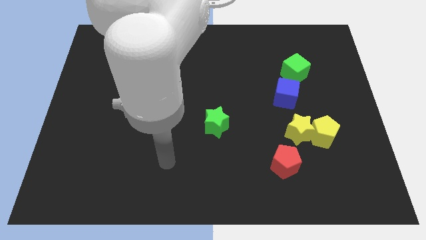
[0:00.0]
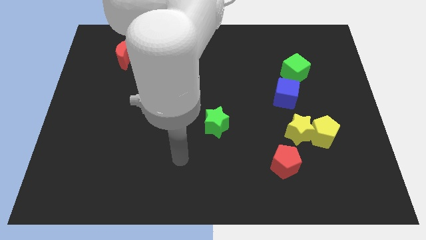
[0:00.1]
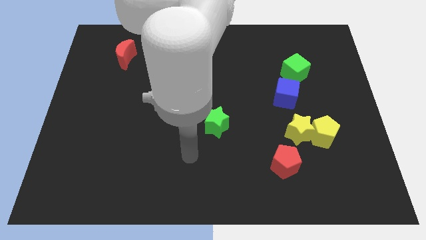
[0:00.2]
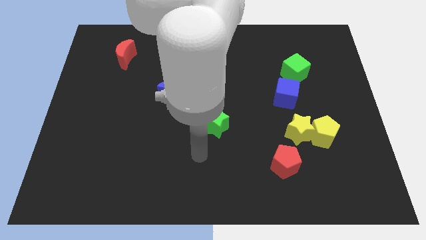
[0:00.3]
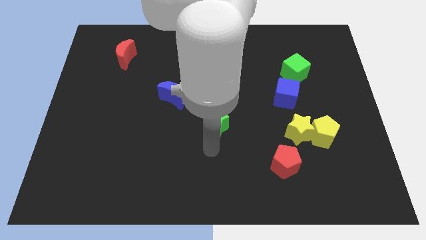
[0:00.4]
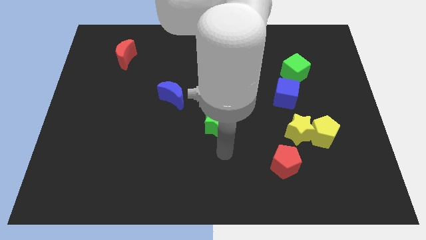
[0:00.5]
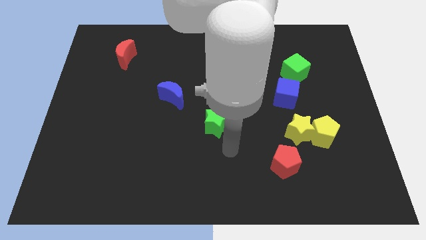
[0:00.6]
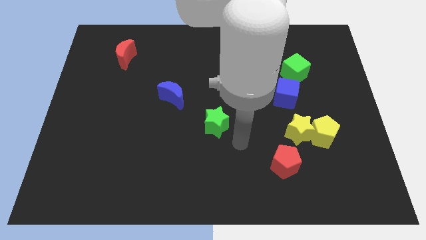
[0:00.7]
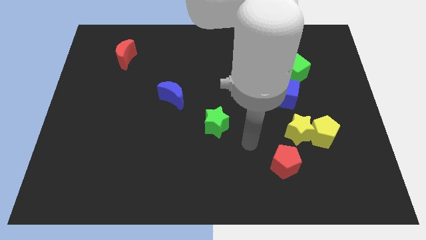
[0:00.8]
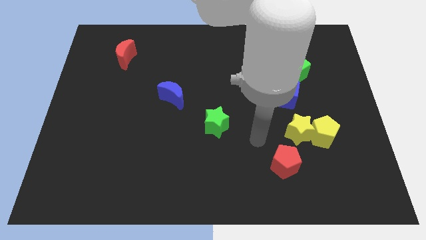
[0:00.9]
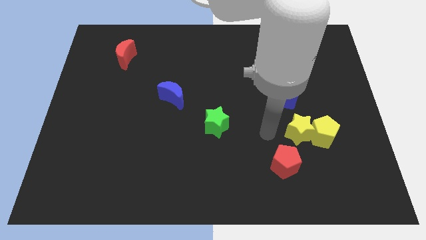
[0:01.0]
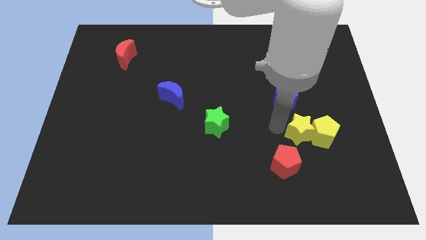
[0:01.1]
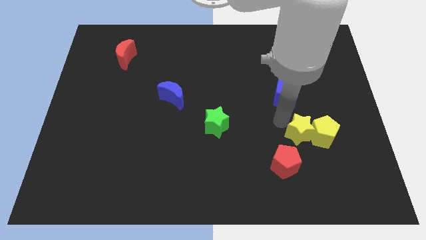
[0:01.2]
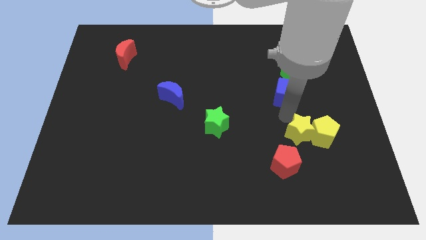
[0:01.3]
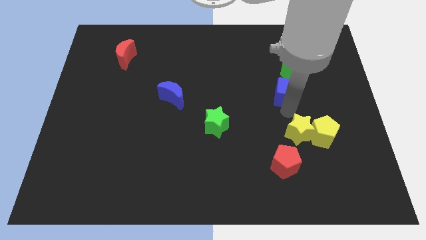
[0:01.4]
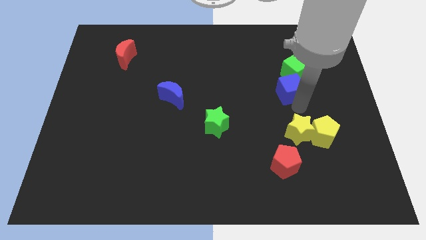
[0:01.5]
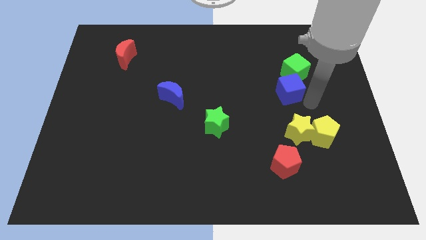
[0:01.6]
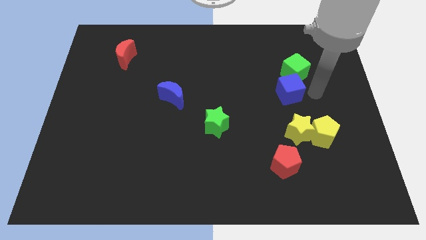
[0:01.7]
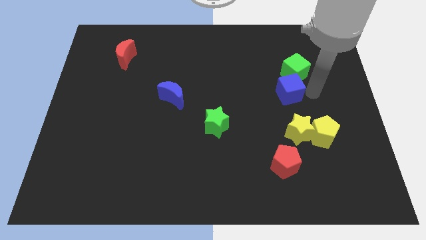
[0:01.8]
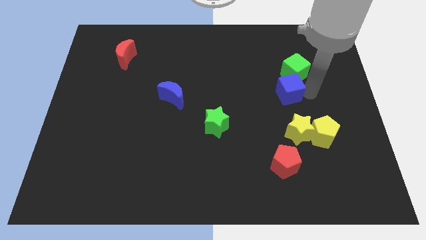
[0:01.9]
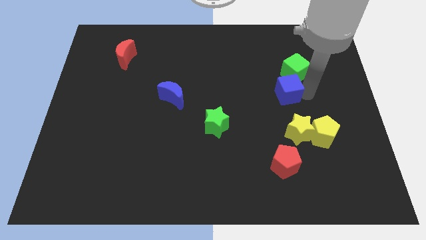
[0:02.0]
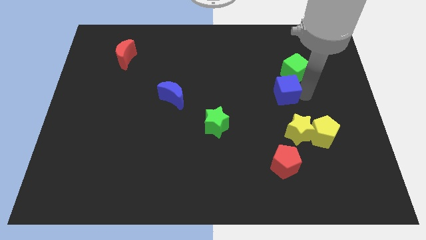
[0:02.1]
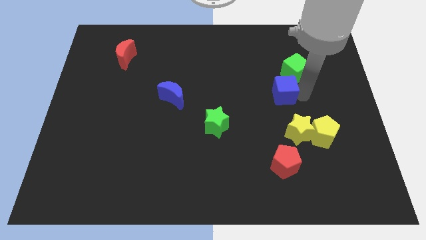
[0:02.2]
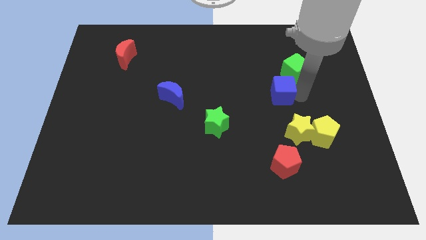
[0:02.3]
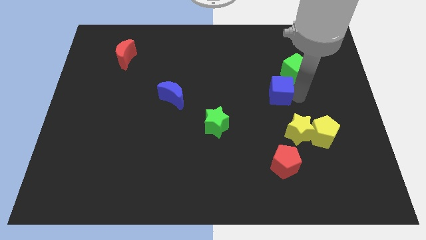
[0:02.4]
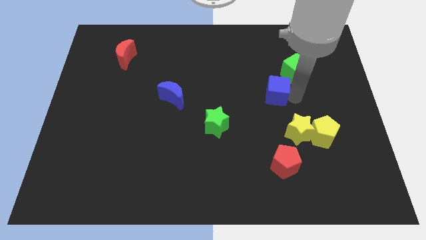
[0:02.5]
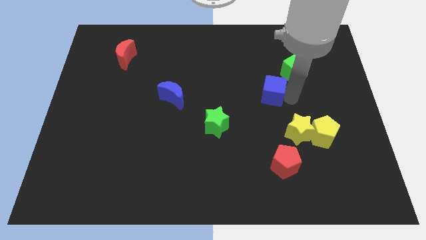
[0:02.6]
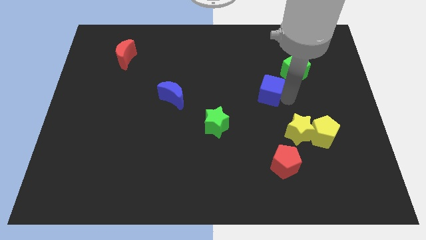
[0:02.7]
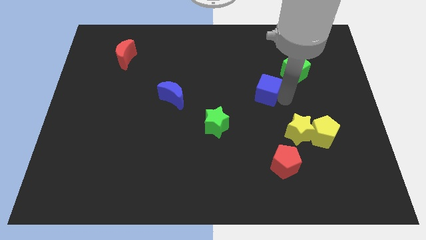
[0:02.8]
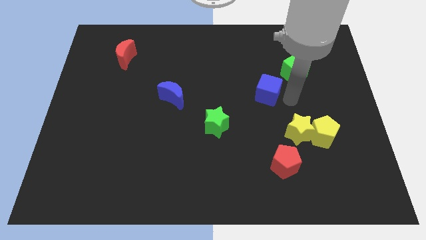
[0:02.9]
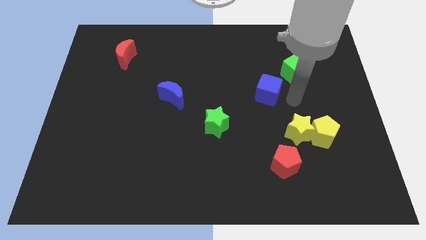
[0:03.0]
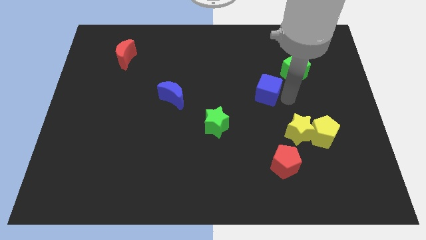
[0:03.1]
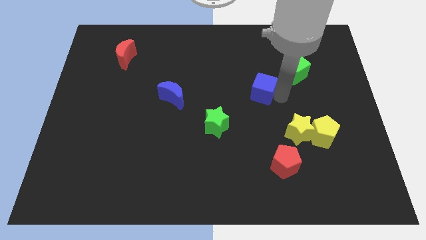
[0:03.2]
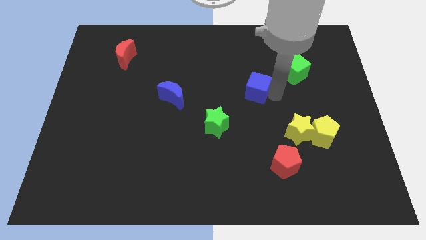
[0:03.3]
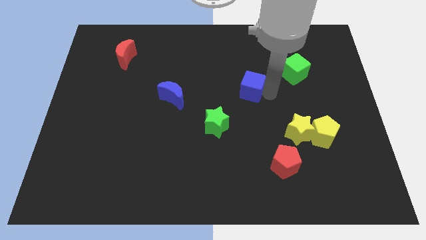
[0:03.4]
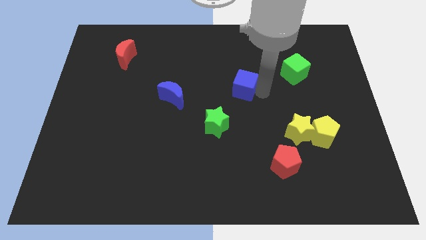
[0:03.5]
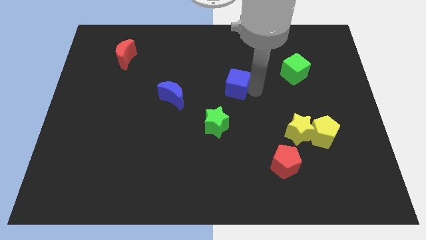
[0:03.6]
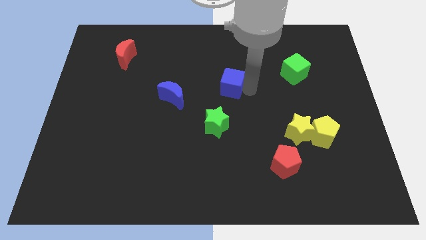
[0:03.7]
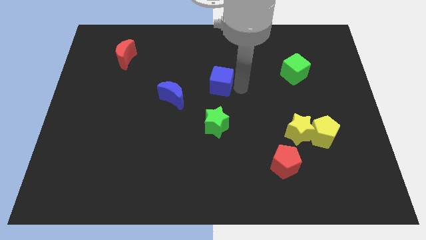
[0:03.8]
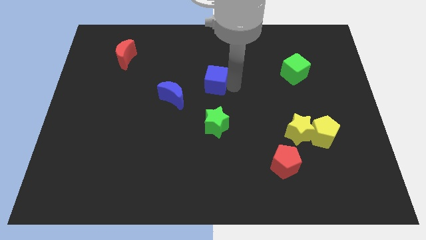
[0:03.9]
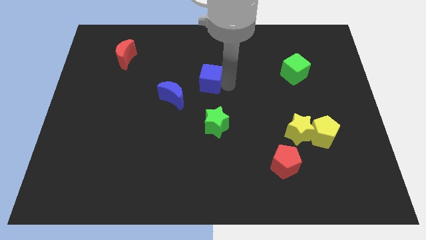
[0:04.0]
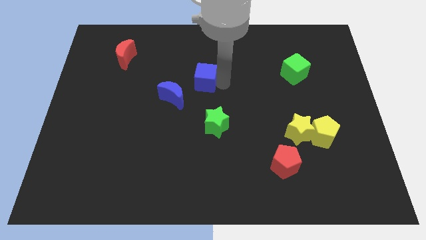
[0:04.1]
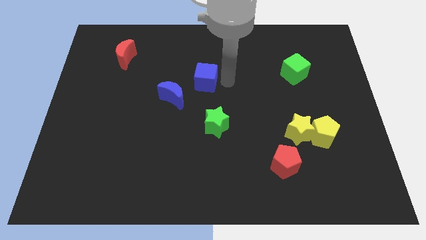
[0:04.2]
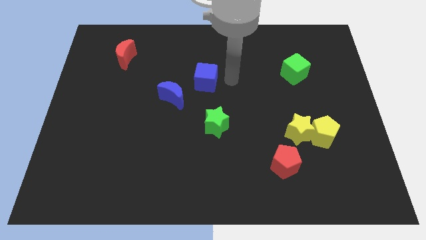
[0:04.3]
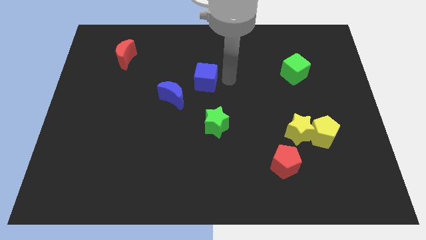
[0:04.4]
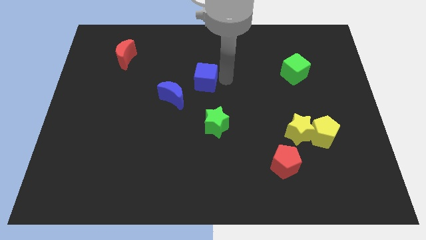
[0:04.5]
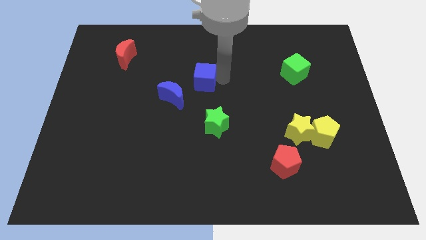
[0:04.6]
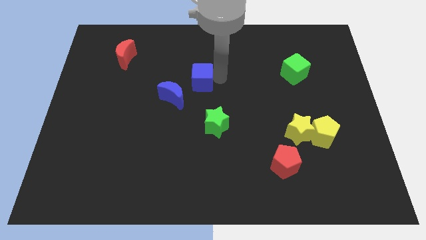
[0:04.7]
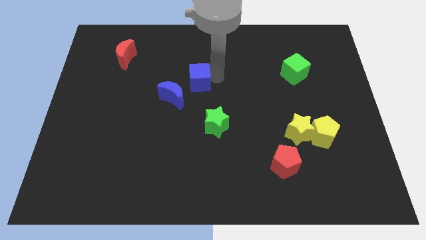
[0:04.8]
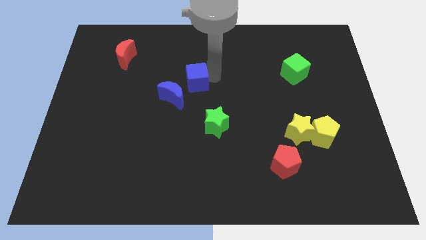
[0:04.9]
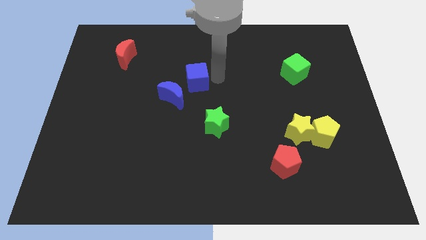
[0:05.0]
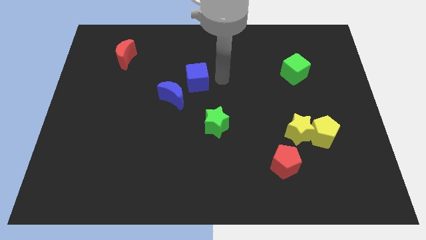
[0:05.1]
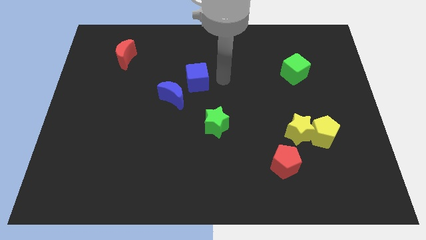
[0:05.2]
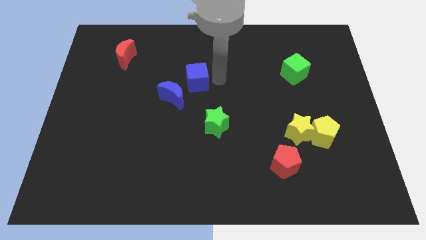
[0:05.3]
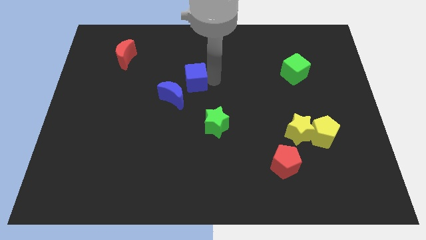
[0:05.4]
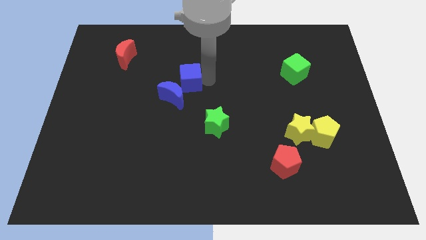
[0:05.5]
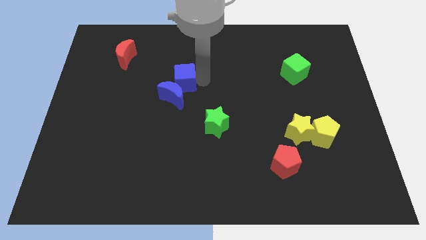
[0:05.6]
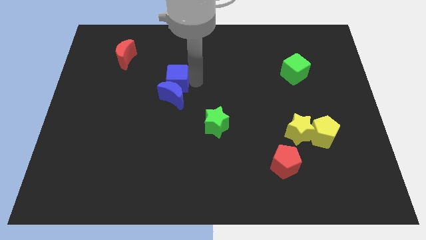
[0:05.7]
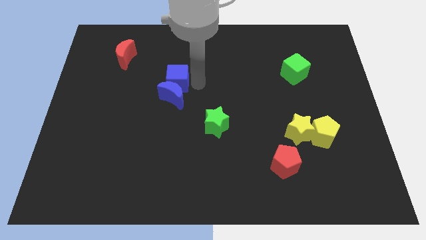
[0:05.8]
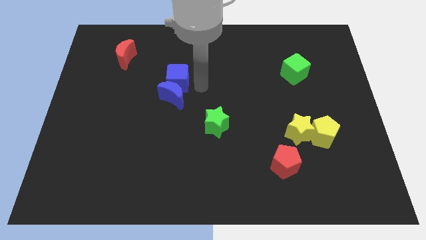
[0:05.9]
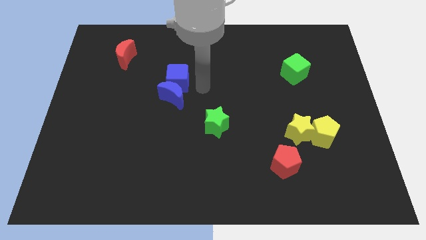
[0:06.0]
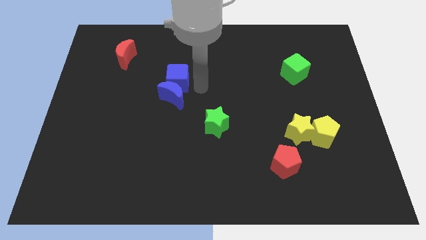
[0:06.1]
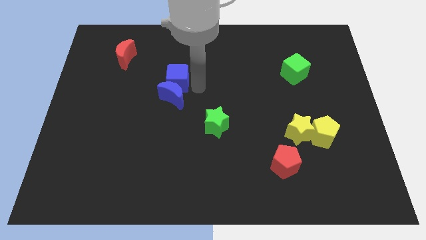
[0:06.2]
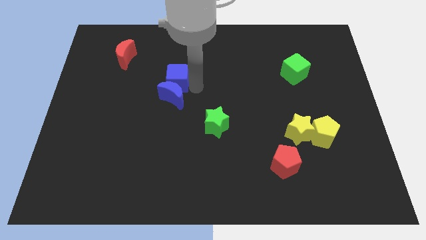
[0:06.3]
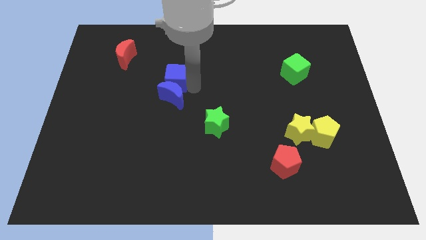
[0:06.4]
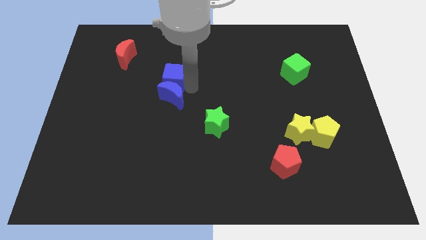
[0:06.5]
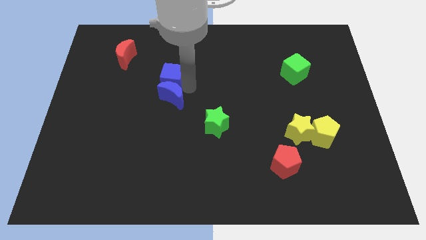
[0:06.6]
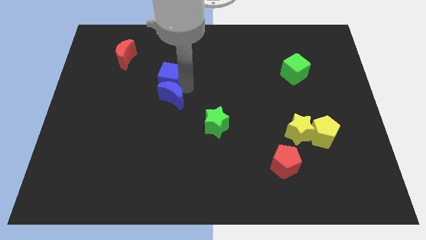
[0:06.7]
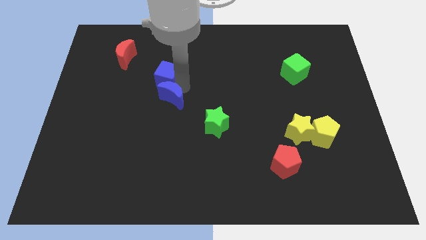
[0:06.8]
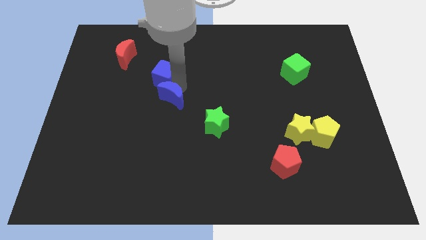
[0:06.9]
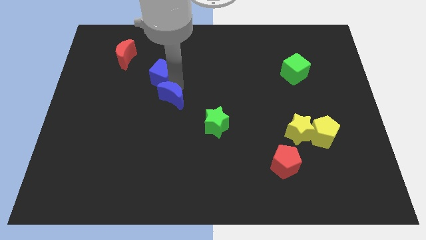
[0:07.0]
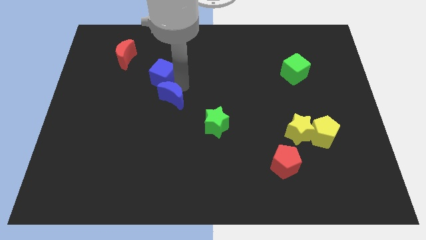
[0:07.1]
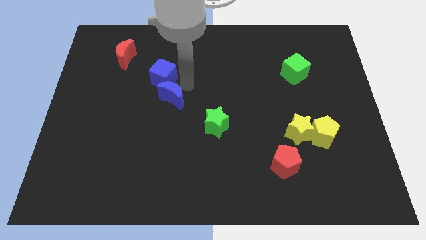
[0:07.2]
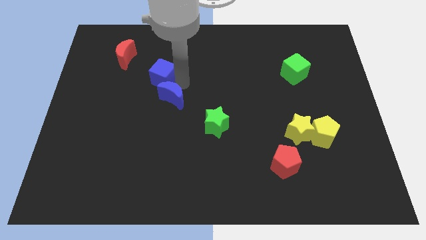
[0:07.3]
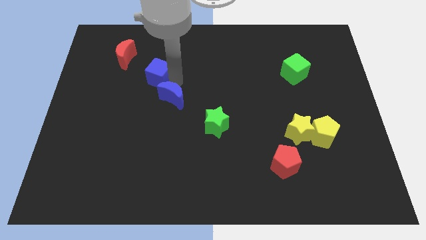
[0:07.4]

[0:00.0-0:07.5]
slide the blue cube to the bottom right of the red moon
